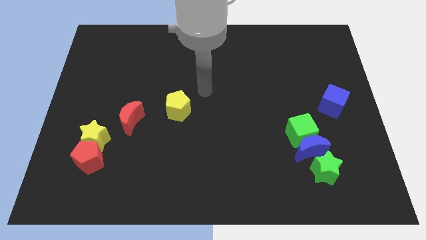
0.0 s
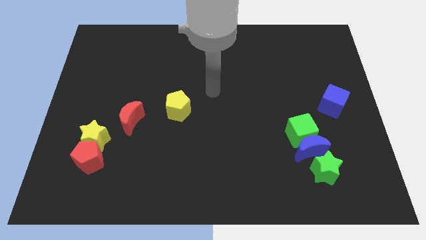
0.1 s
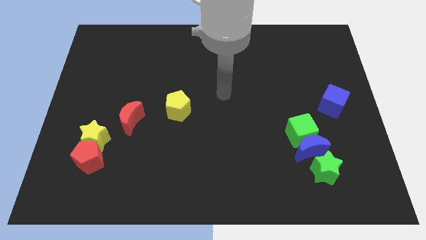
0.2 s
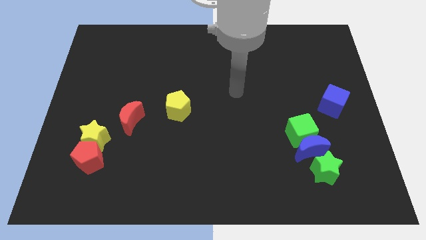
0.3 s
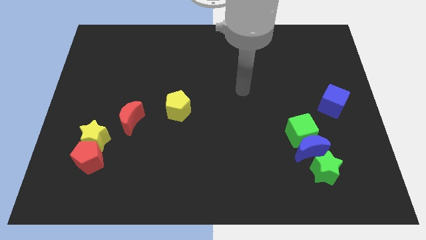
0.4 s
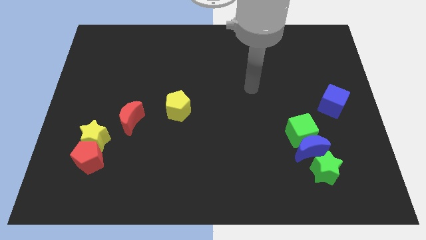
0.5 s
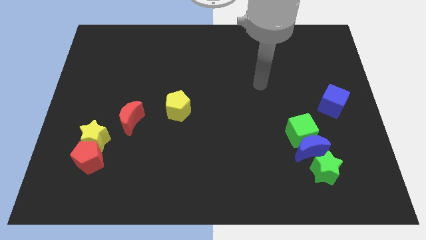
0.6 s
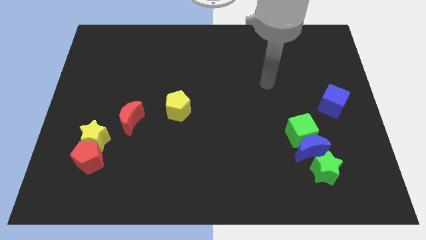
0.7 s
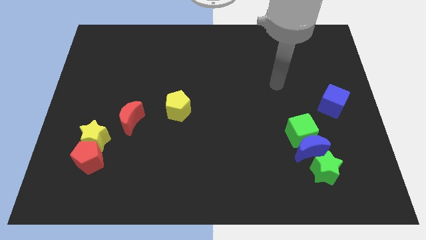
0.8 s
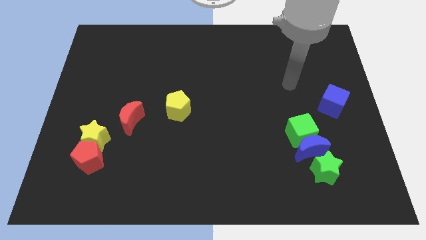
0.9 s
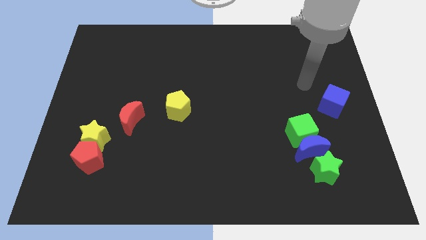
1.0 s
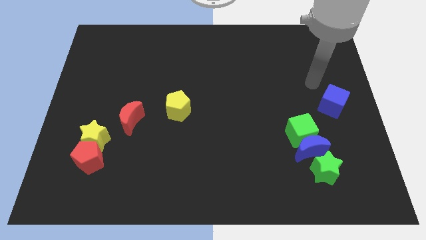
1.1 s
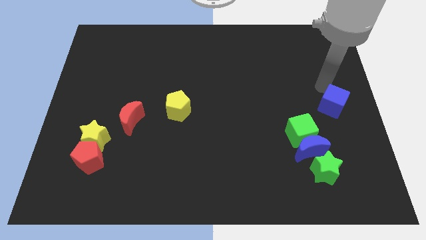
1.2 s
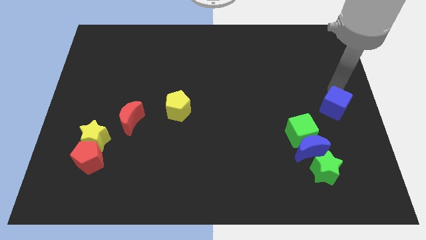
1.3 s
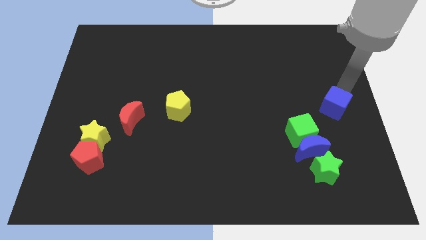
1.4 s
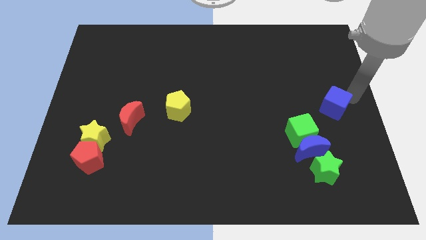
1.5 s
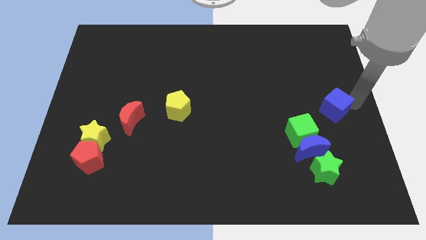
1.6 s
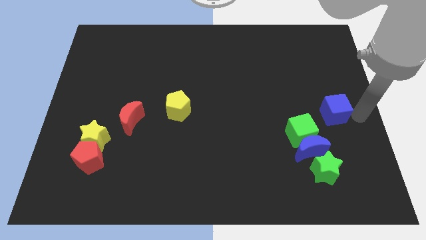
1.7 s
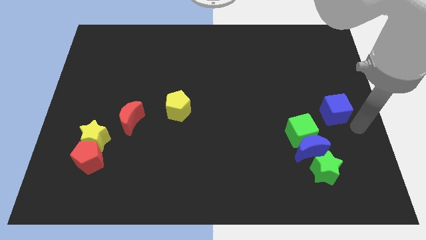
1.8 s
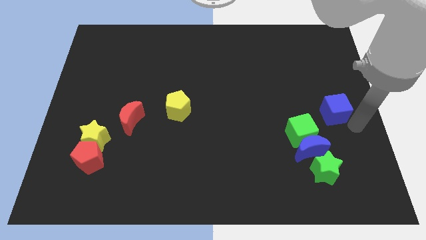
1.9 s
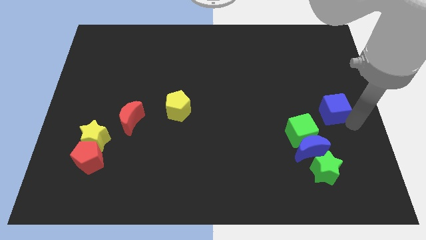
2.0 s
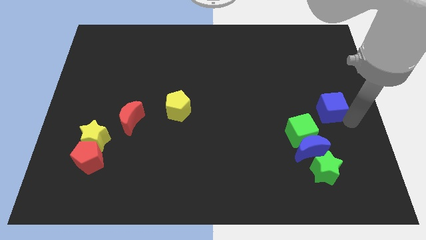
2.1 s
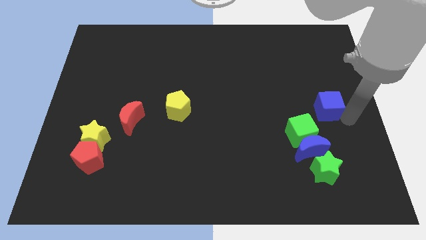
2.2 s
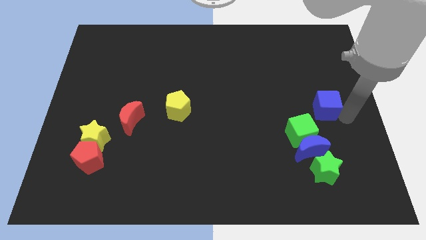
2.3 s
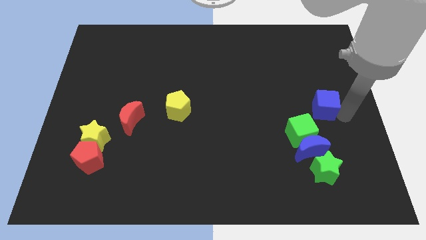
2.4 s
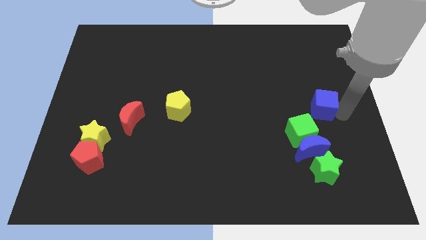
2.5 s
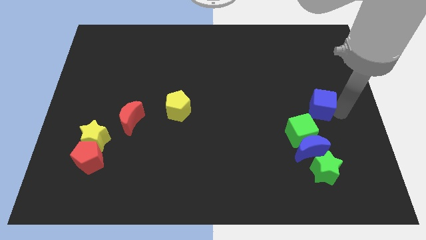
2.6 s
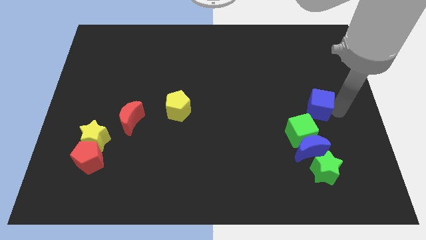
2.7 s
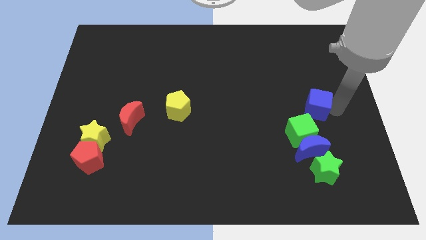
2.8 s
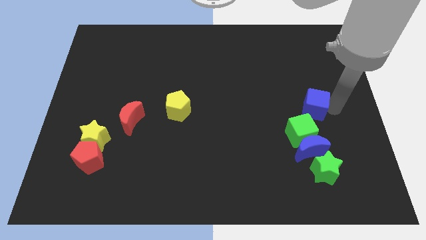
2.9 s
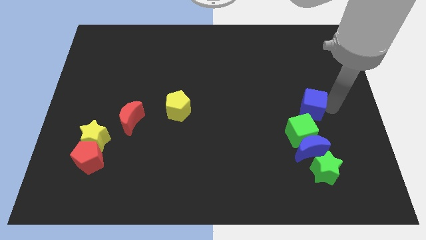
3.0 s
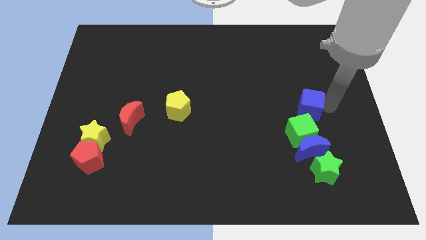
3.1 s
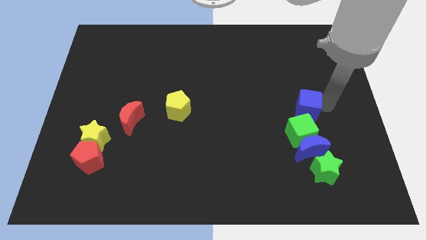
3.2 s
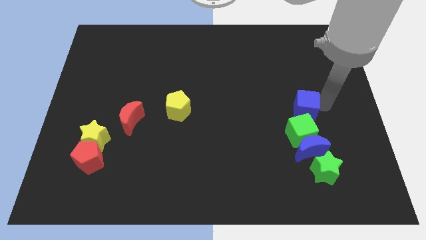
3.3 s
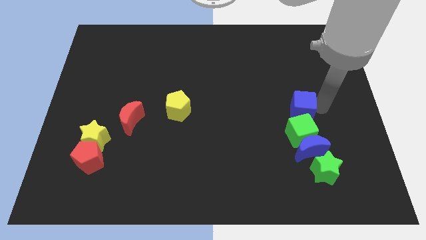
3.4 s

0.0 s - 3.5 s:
slide the blue cube a bit left

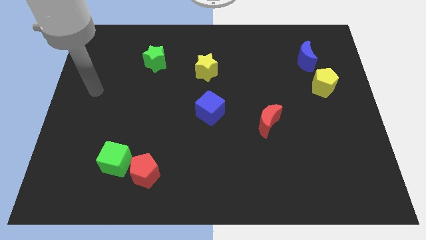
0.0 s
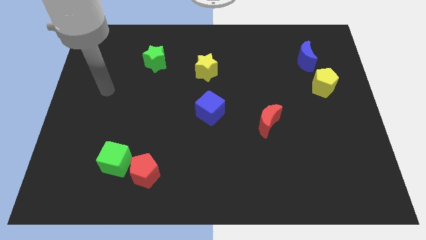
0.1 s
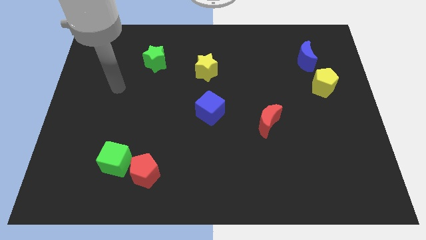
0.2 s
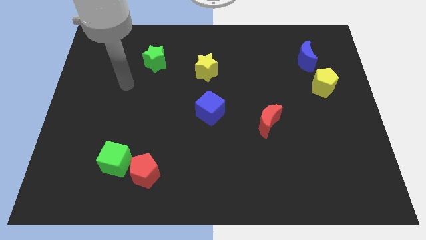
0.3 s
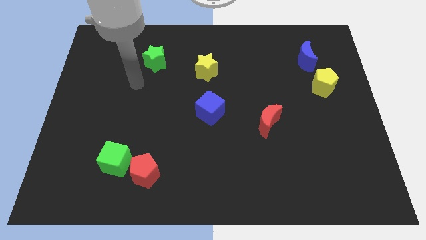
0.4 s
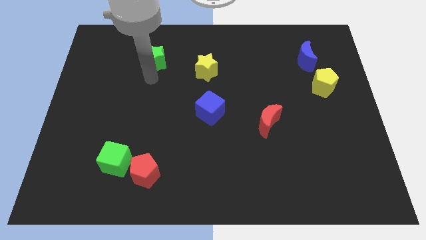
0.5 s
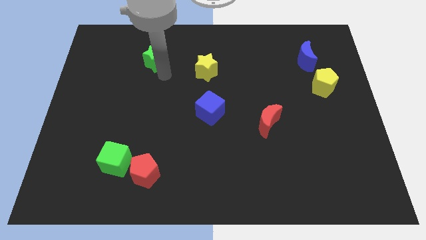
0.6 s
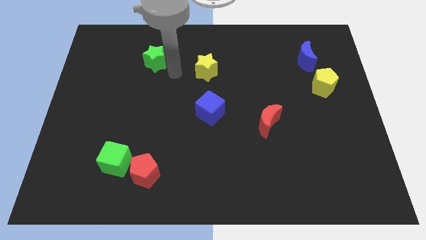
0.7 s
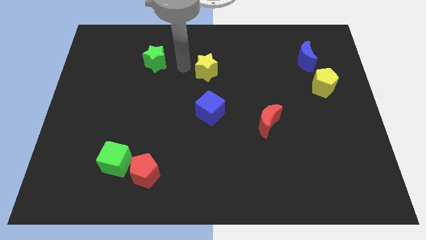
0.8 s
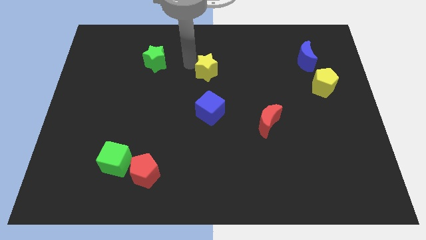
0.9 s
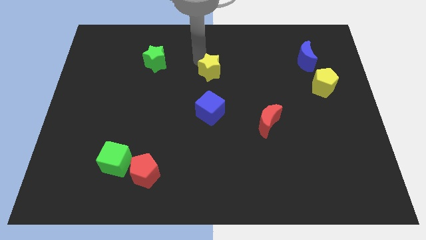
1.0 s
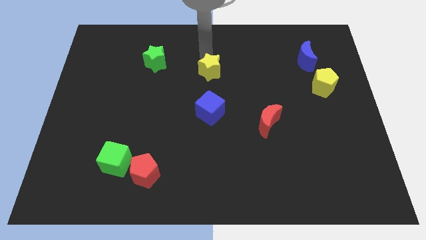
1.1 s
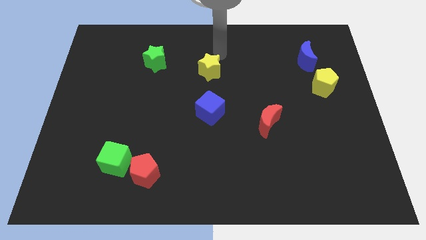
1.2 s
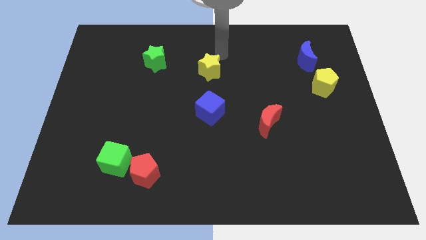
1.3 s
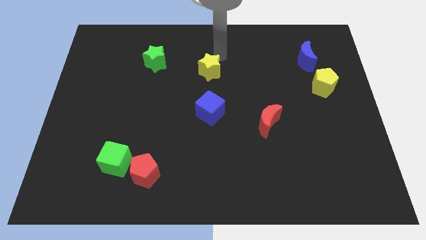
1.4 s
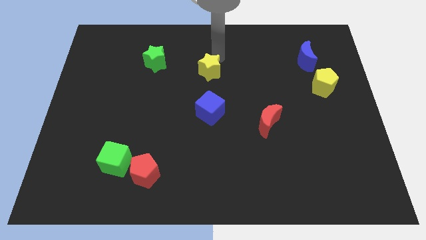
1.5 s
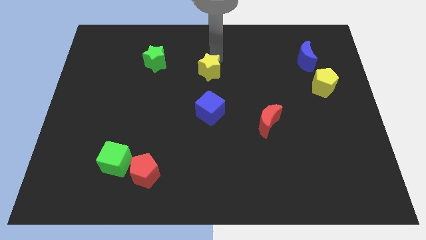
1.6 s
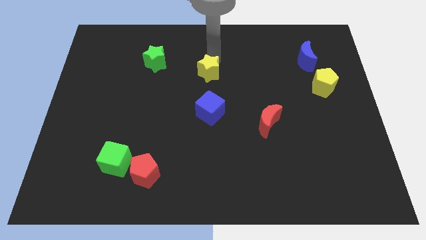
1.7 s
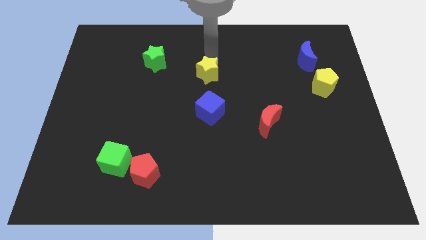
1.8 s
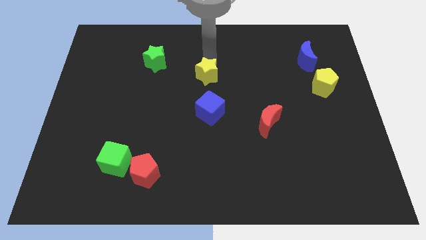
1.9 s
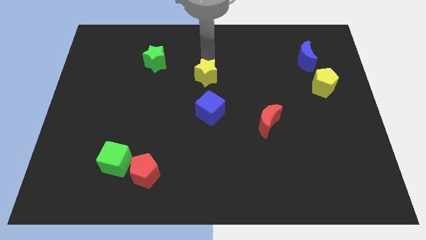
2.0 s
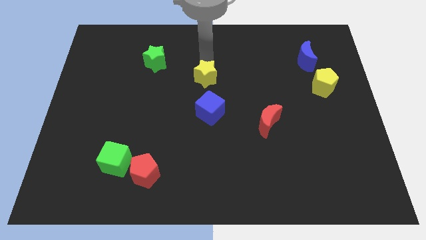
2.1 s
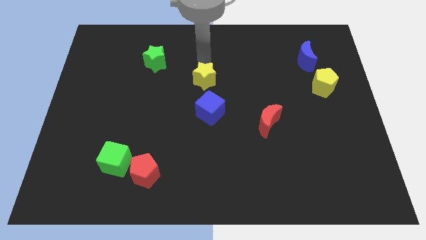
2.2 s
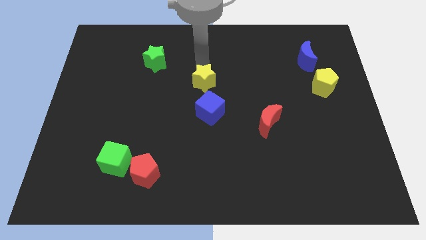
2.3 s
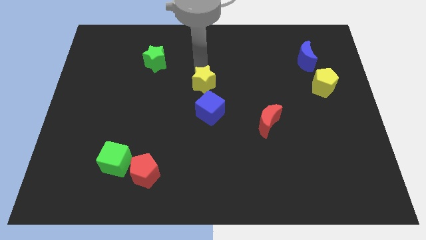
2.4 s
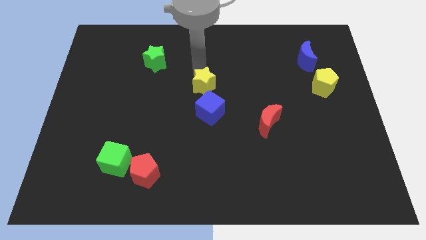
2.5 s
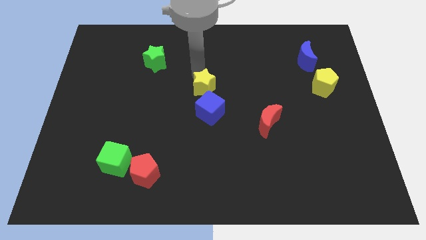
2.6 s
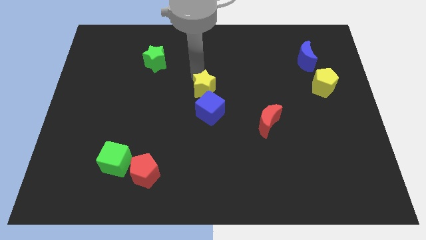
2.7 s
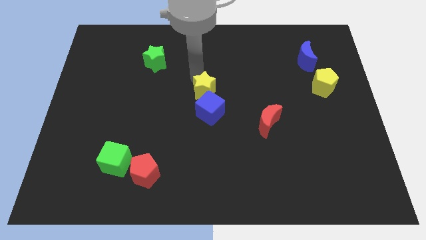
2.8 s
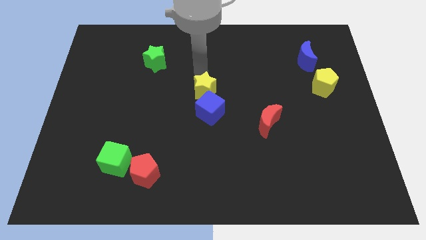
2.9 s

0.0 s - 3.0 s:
slightly move the yellow star down

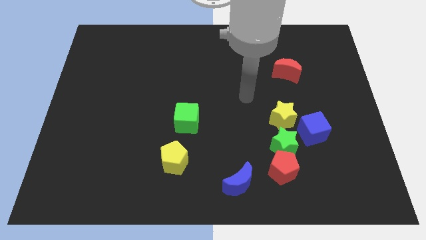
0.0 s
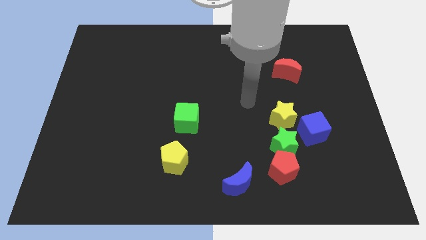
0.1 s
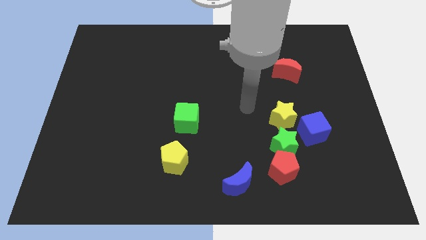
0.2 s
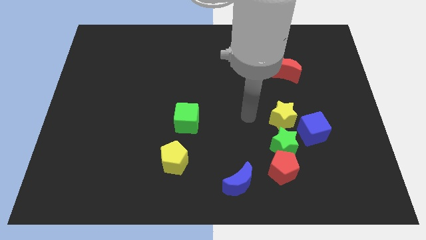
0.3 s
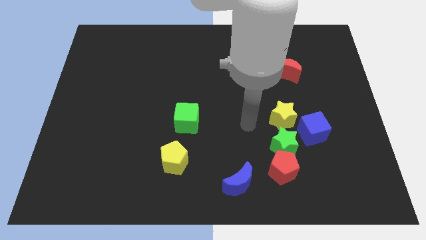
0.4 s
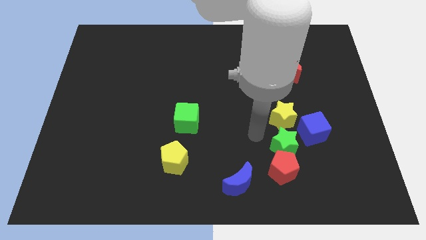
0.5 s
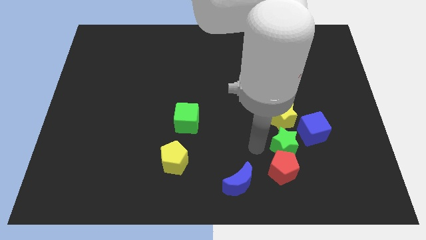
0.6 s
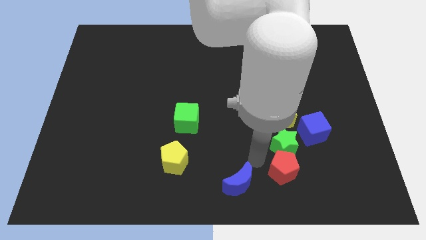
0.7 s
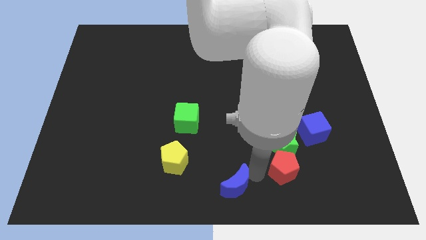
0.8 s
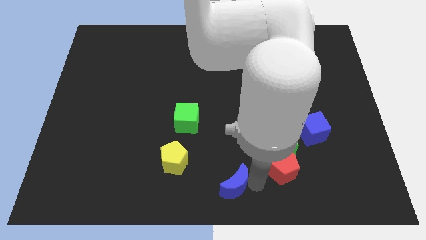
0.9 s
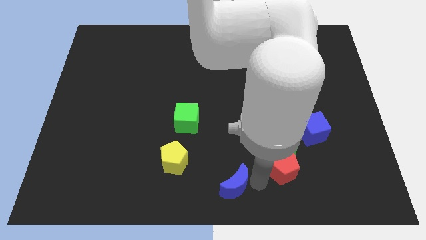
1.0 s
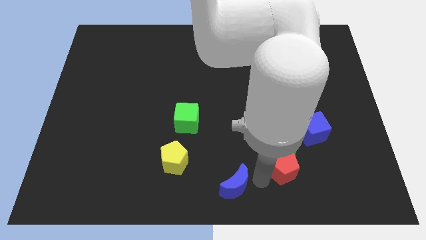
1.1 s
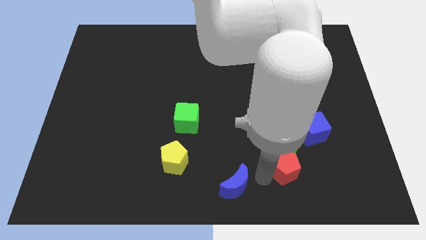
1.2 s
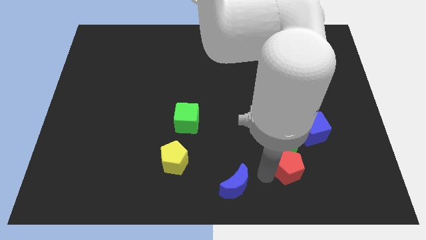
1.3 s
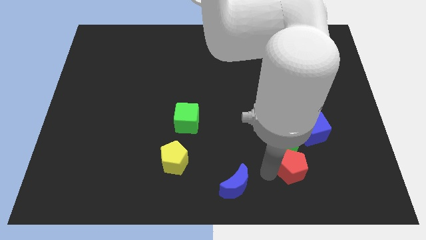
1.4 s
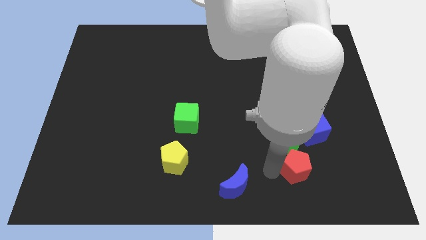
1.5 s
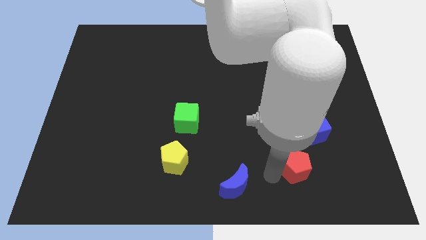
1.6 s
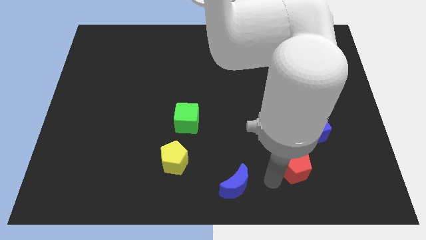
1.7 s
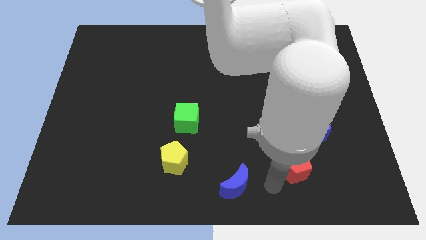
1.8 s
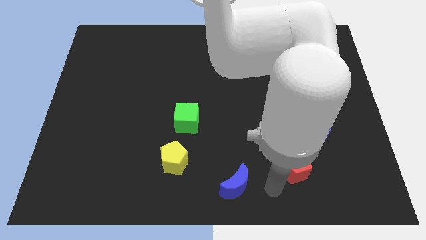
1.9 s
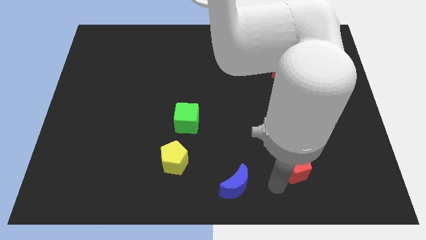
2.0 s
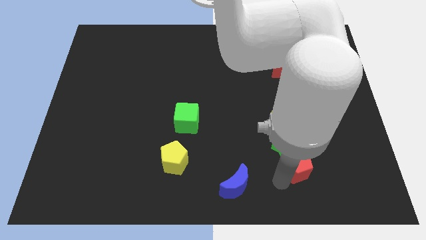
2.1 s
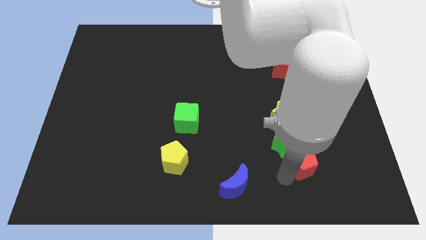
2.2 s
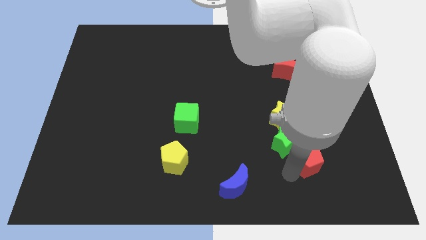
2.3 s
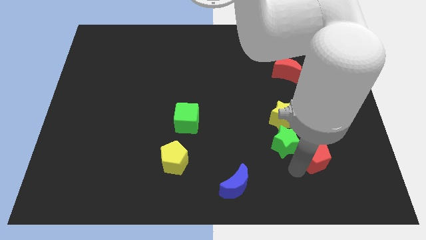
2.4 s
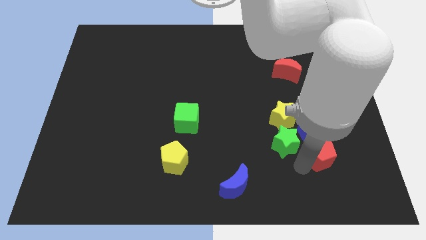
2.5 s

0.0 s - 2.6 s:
slide the red pentagon diagonally upwards and to the right slightly
